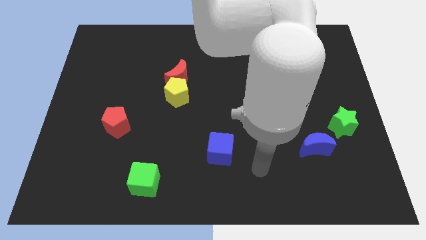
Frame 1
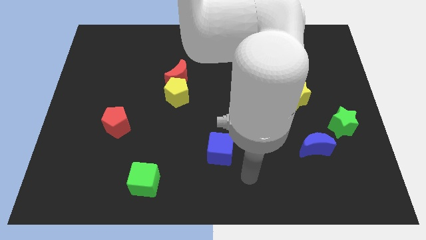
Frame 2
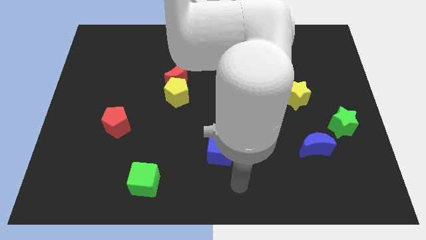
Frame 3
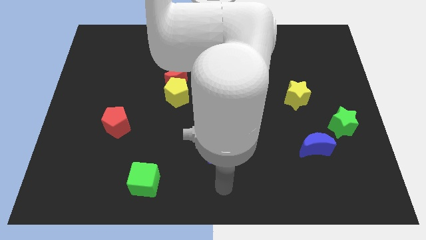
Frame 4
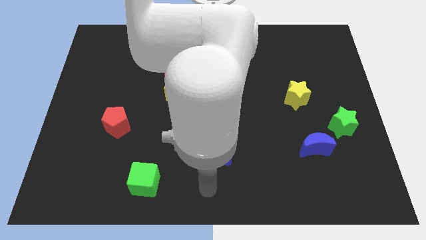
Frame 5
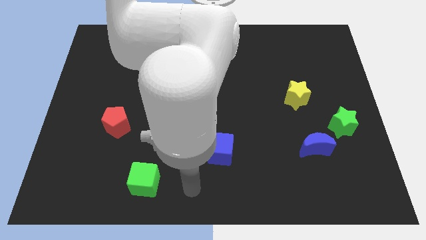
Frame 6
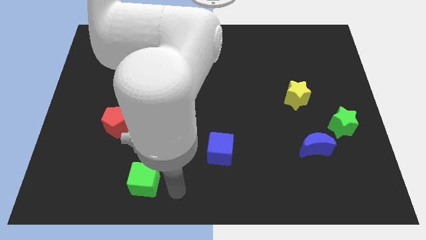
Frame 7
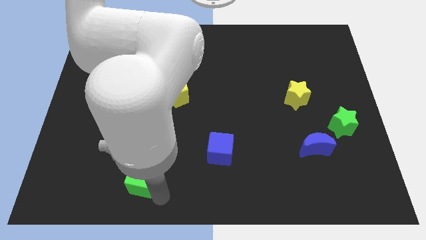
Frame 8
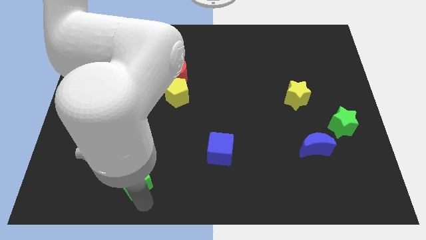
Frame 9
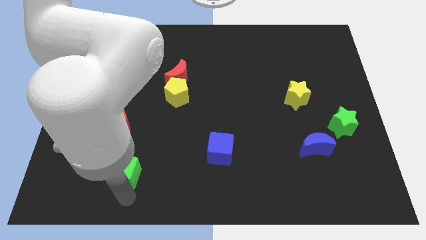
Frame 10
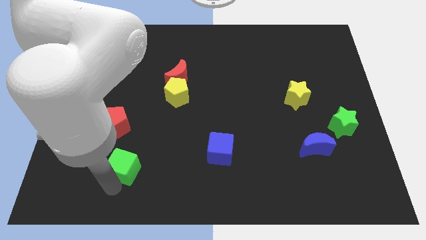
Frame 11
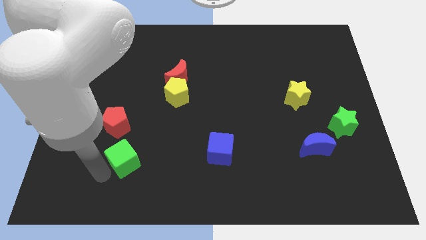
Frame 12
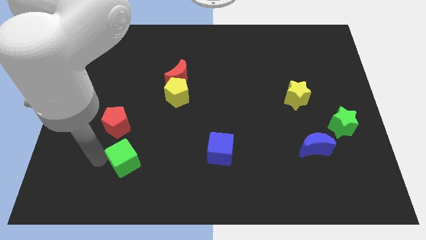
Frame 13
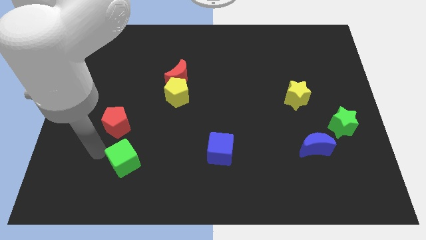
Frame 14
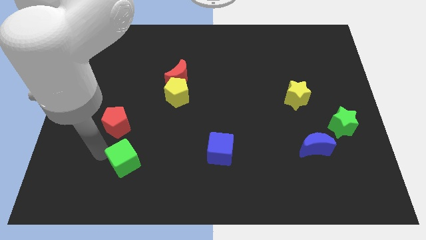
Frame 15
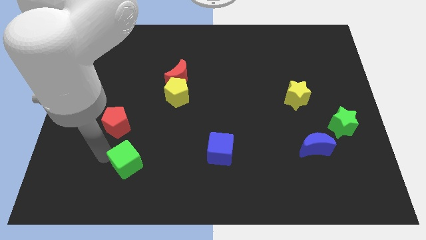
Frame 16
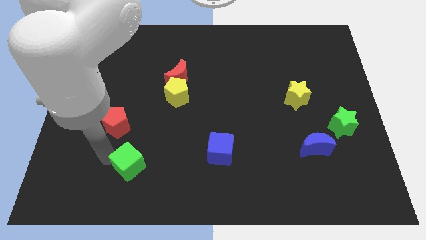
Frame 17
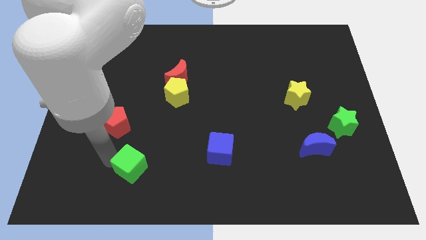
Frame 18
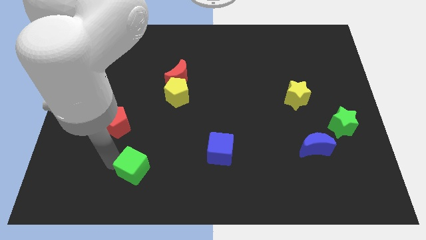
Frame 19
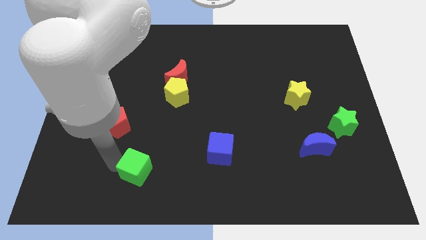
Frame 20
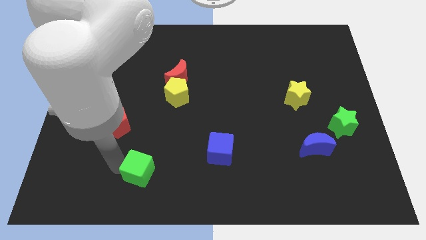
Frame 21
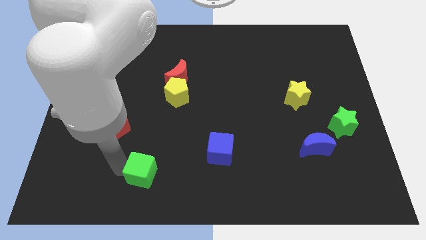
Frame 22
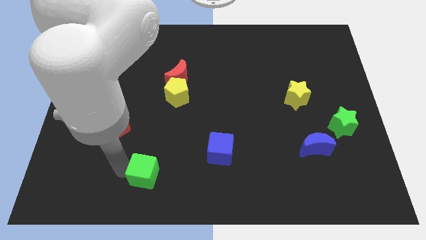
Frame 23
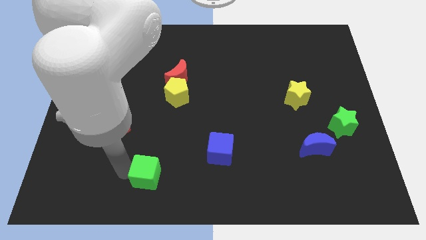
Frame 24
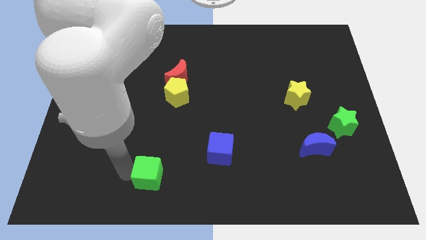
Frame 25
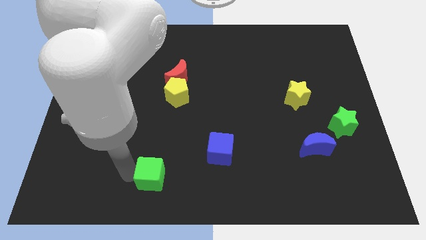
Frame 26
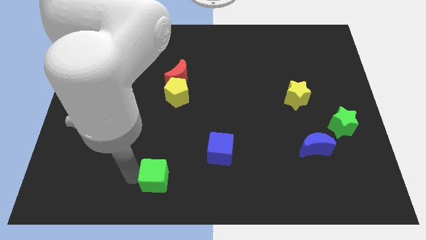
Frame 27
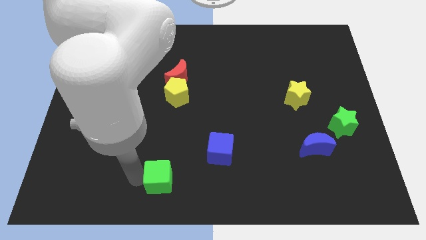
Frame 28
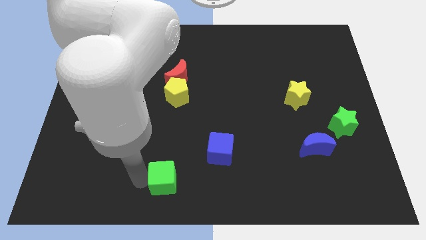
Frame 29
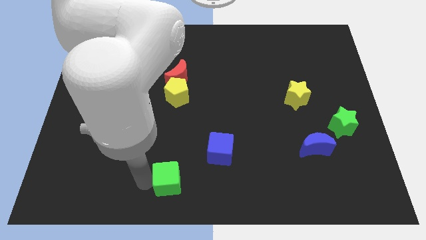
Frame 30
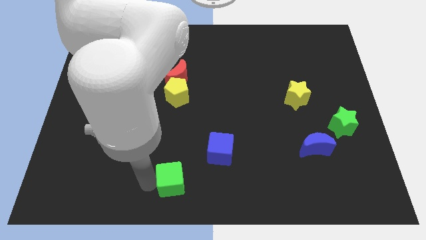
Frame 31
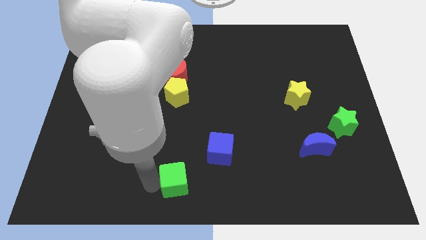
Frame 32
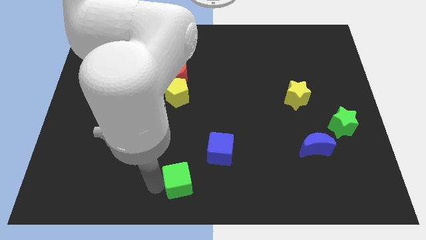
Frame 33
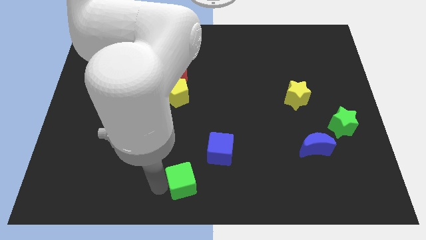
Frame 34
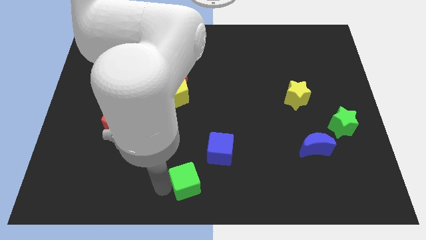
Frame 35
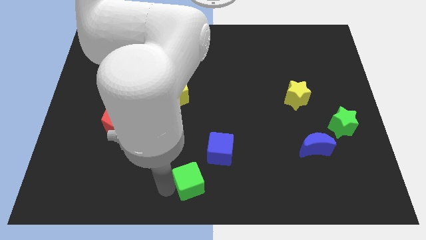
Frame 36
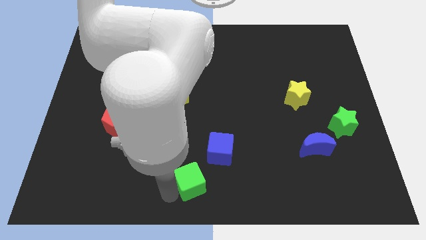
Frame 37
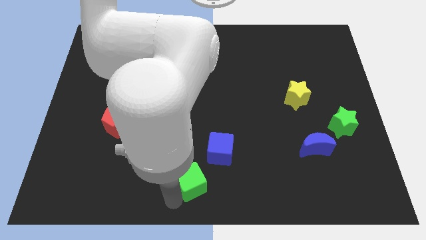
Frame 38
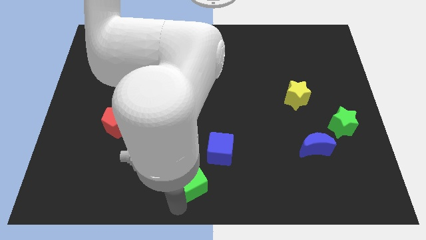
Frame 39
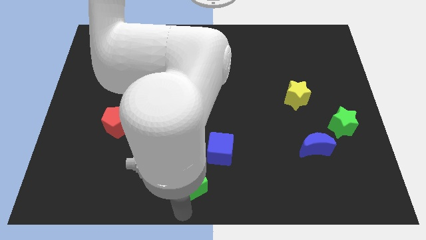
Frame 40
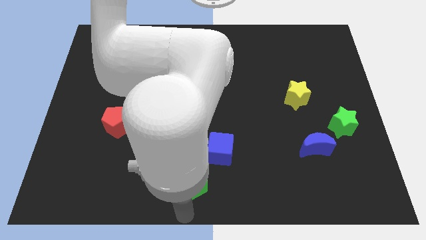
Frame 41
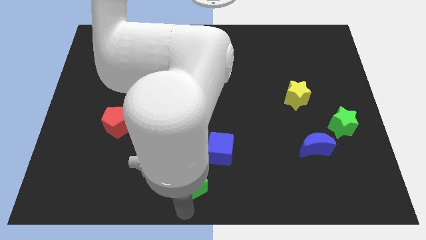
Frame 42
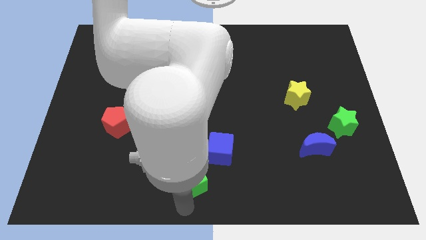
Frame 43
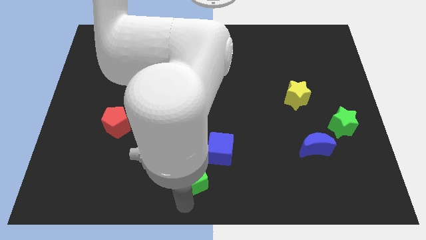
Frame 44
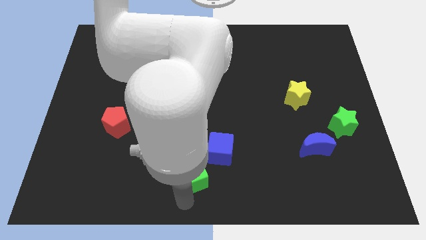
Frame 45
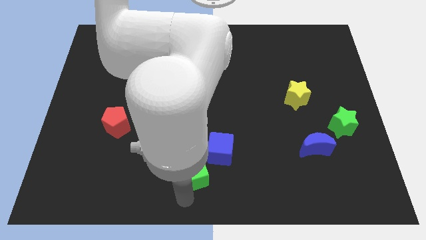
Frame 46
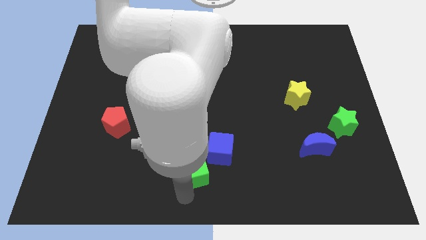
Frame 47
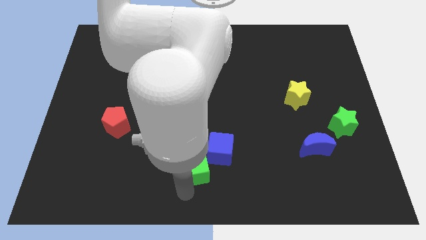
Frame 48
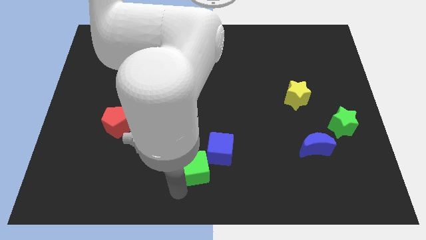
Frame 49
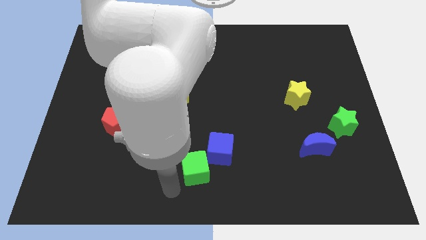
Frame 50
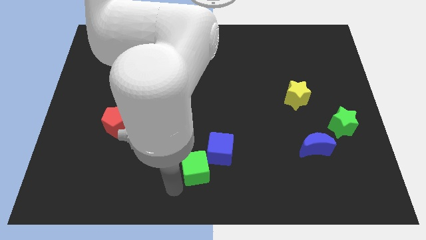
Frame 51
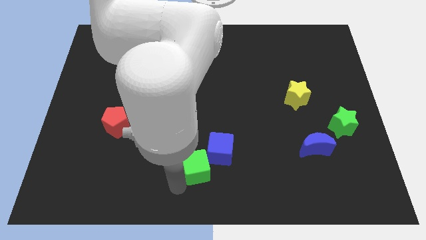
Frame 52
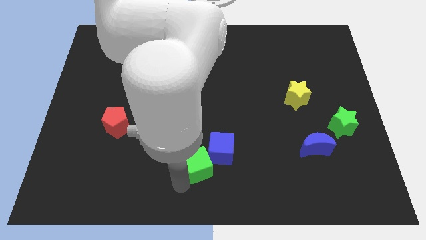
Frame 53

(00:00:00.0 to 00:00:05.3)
slide the green cube to the blue cube

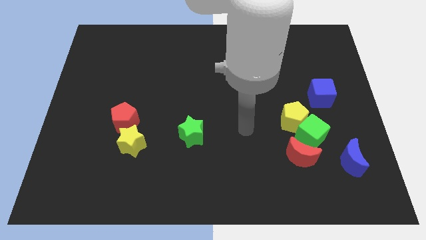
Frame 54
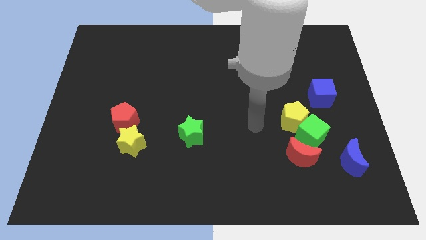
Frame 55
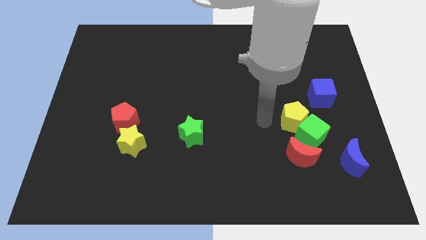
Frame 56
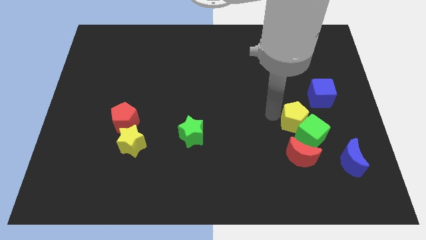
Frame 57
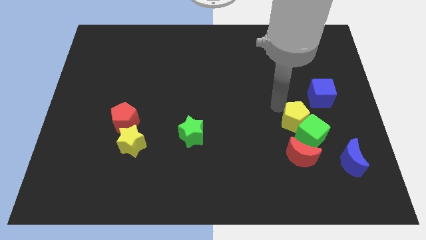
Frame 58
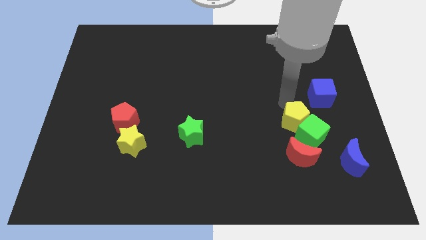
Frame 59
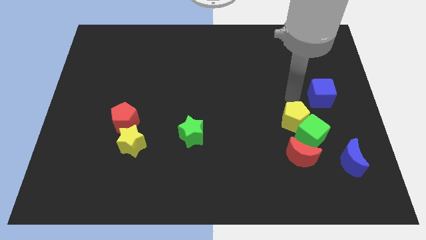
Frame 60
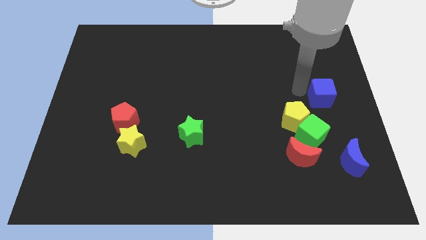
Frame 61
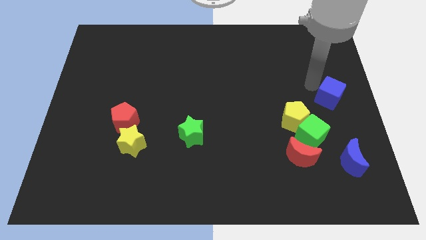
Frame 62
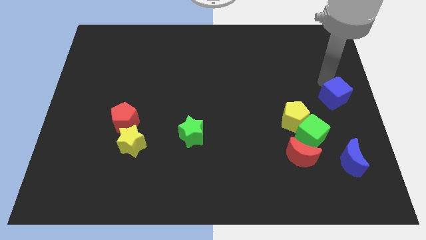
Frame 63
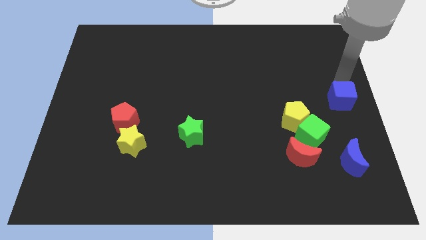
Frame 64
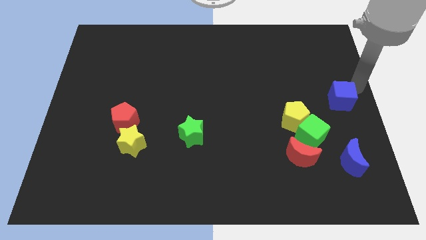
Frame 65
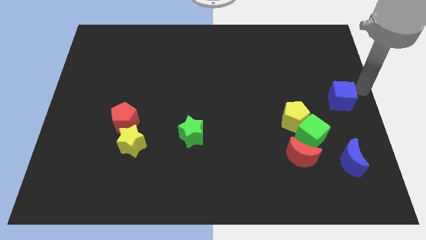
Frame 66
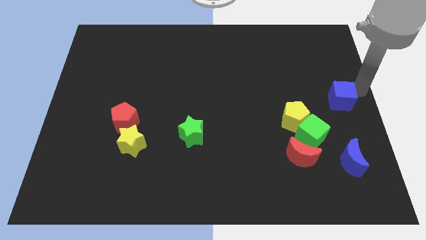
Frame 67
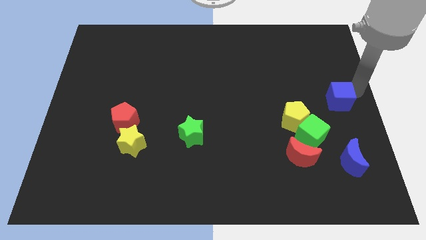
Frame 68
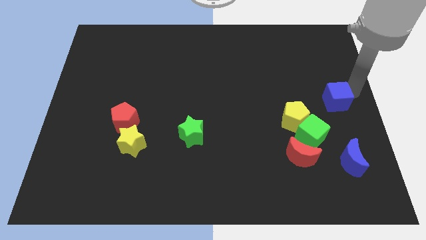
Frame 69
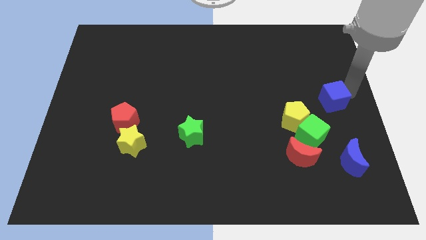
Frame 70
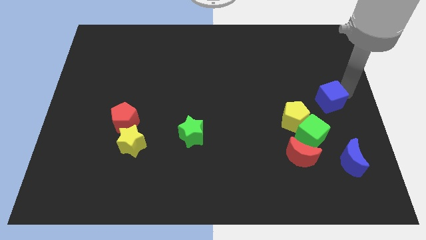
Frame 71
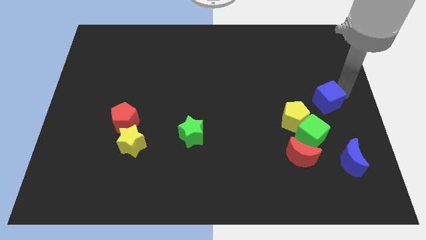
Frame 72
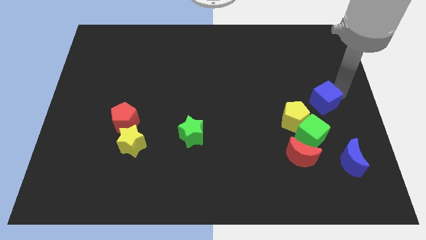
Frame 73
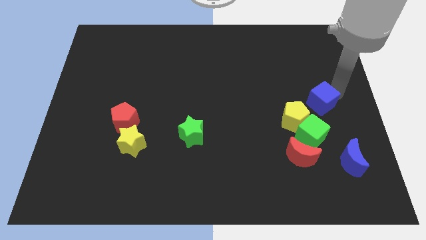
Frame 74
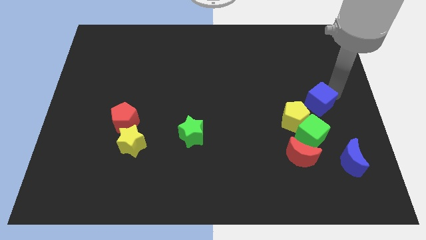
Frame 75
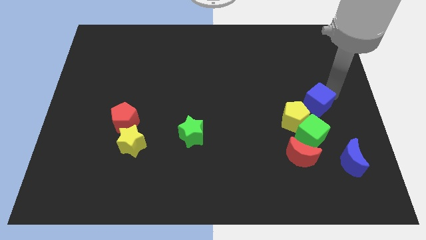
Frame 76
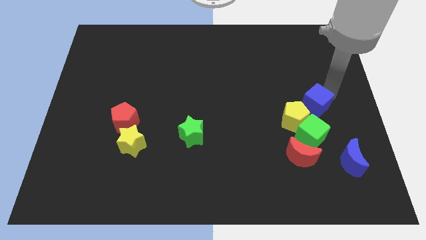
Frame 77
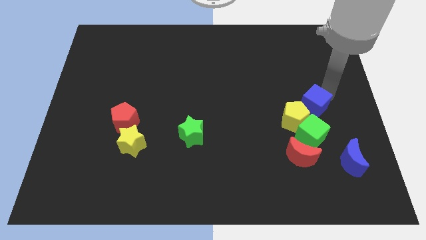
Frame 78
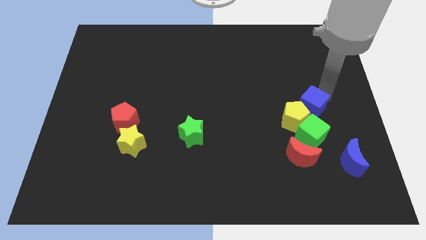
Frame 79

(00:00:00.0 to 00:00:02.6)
put the blue cube close to the yellow pentagon
